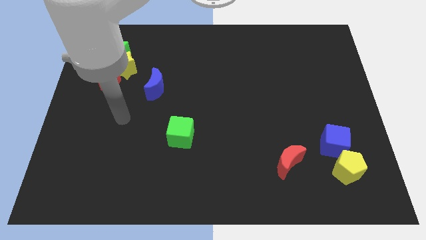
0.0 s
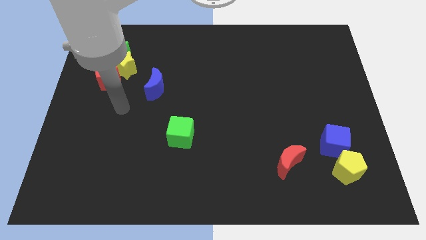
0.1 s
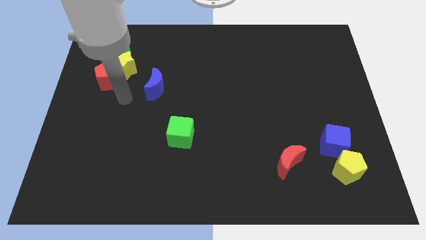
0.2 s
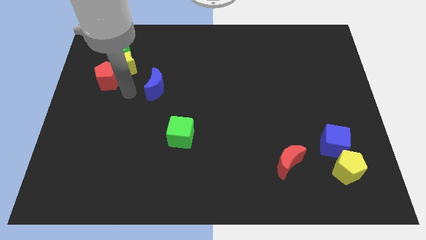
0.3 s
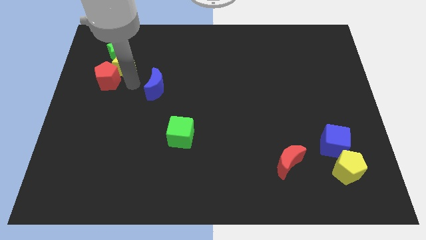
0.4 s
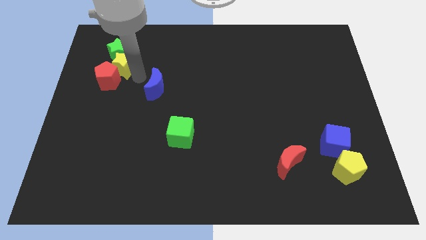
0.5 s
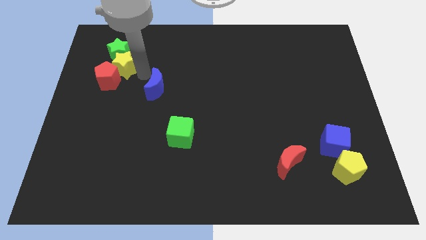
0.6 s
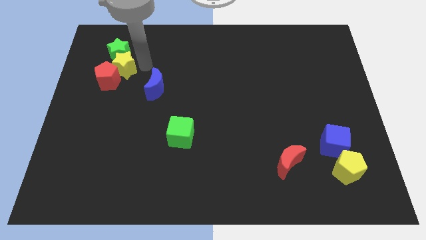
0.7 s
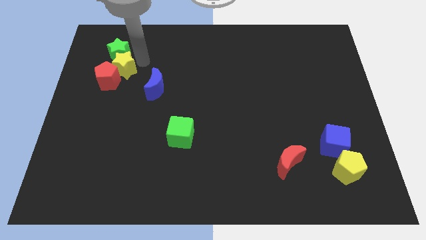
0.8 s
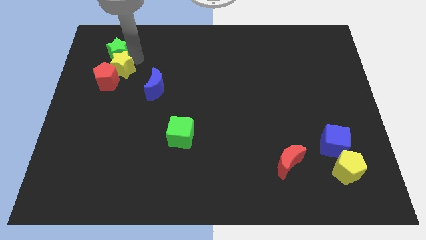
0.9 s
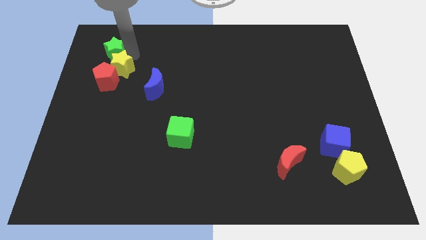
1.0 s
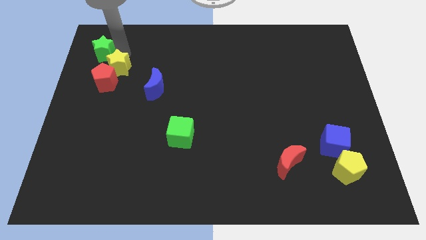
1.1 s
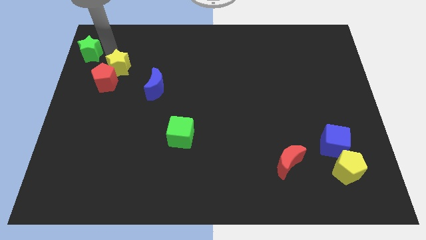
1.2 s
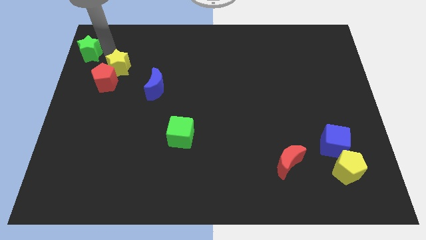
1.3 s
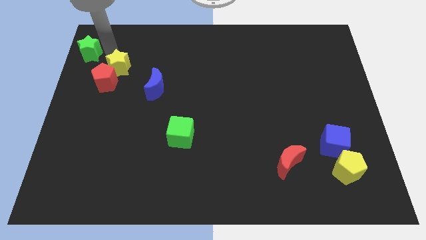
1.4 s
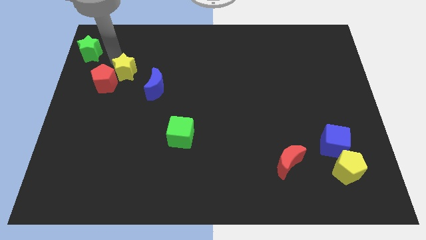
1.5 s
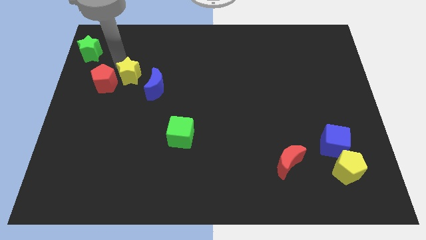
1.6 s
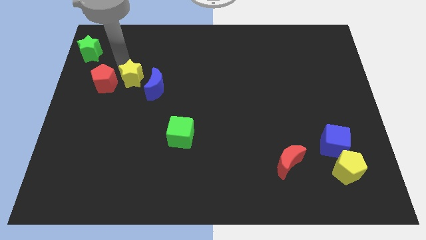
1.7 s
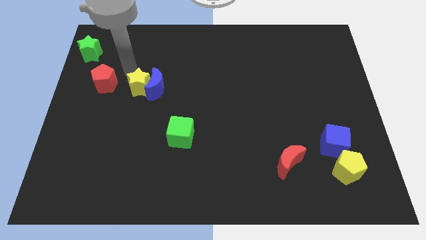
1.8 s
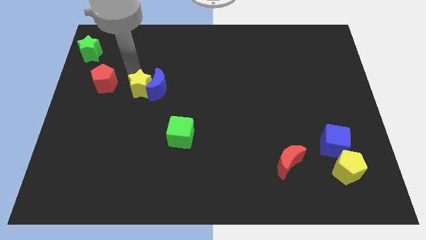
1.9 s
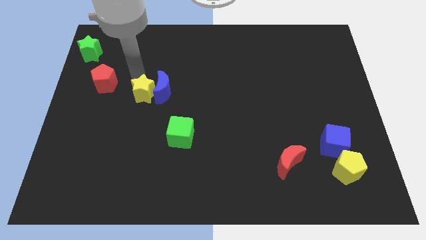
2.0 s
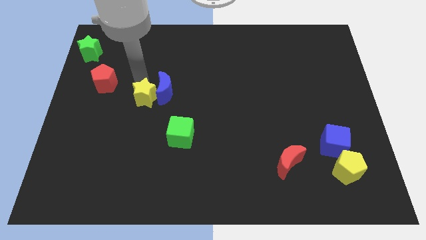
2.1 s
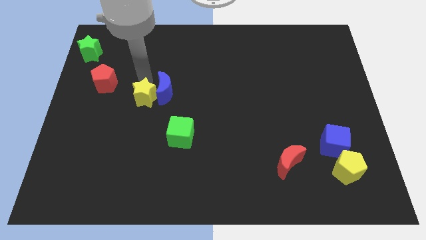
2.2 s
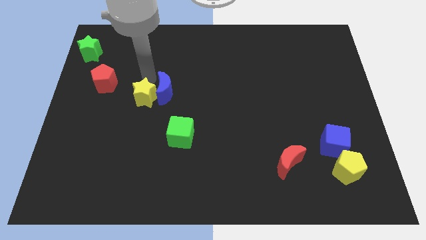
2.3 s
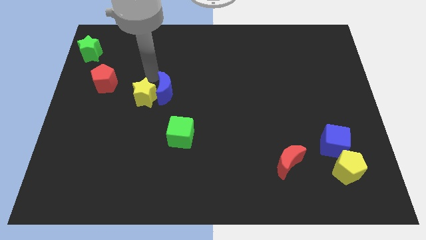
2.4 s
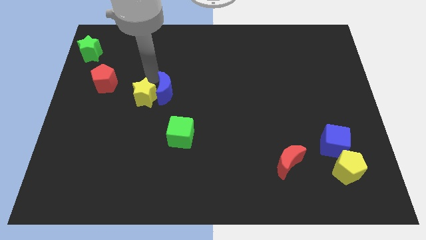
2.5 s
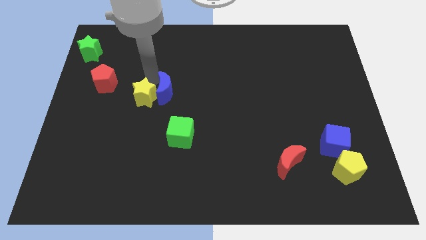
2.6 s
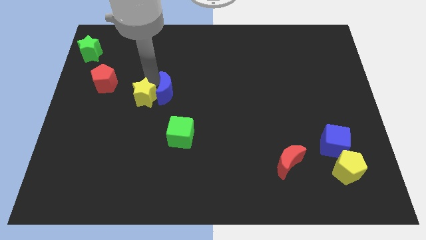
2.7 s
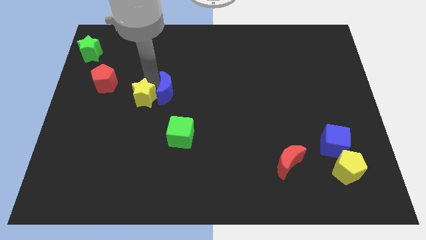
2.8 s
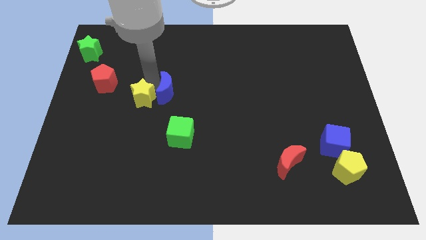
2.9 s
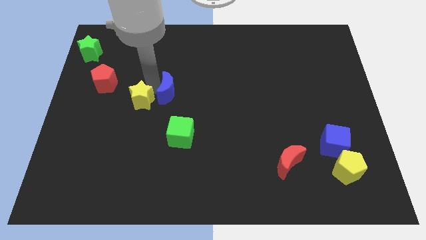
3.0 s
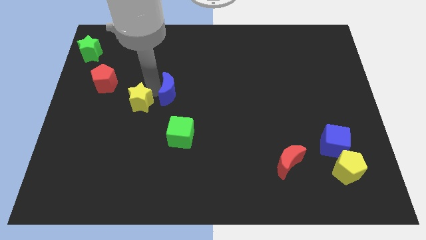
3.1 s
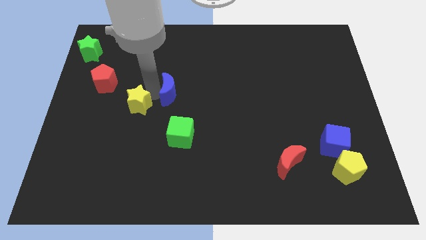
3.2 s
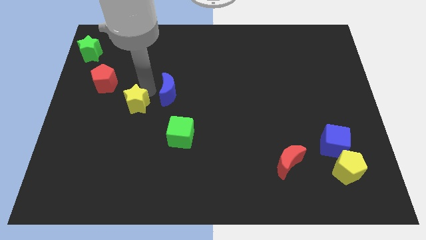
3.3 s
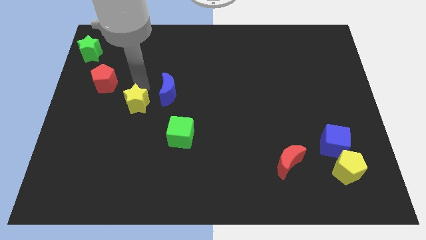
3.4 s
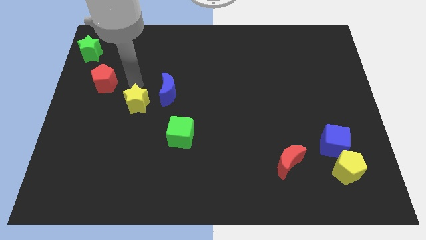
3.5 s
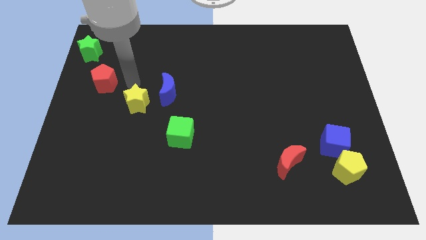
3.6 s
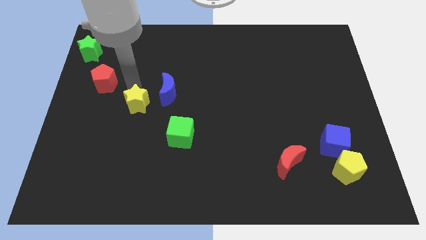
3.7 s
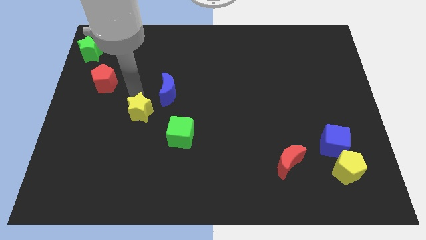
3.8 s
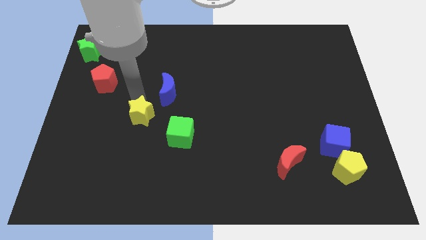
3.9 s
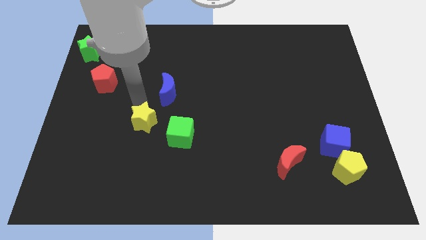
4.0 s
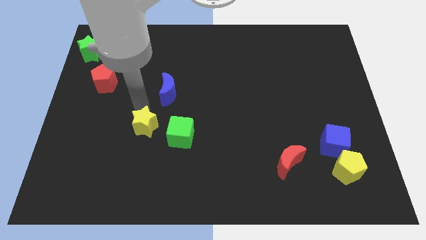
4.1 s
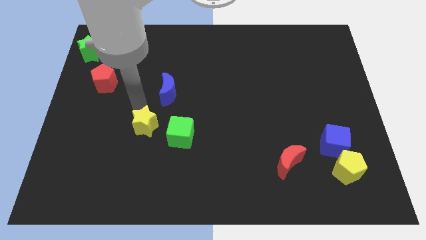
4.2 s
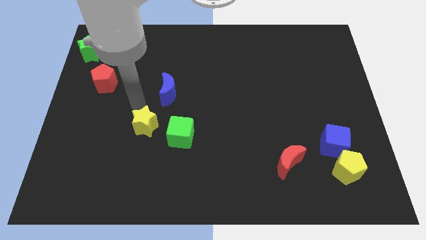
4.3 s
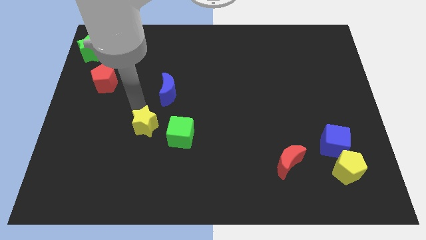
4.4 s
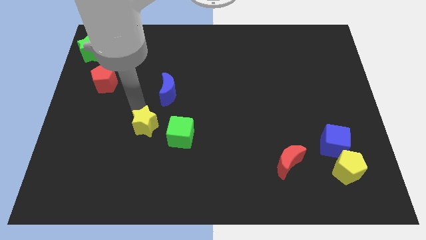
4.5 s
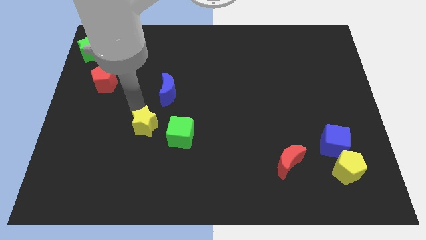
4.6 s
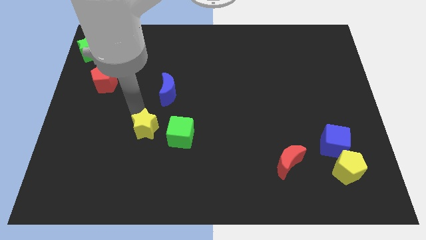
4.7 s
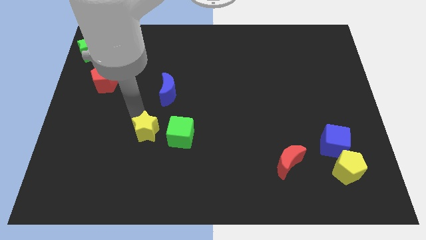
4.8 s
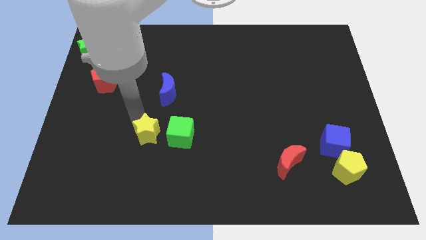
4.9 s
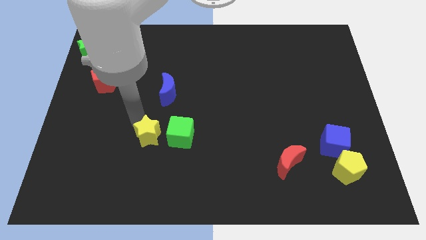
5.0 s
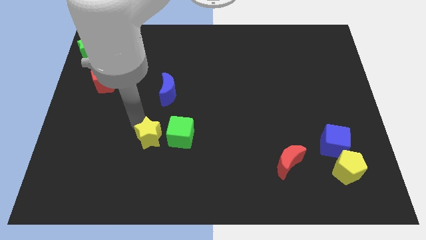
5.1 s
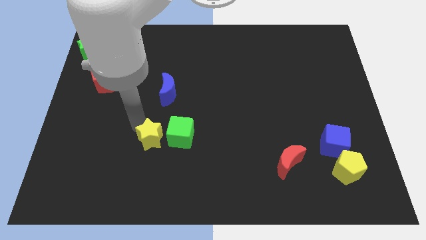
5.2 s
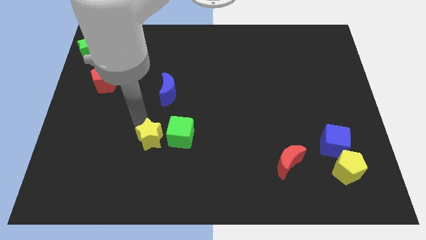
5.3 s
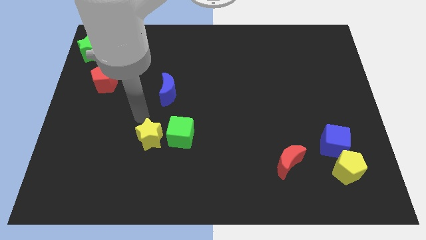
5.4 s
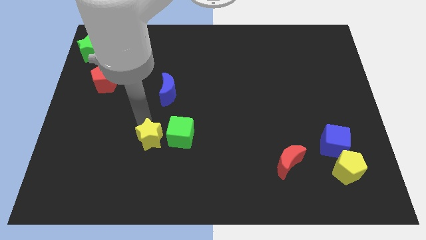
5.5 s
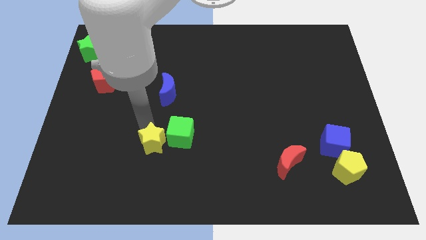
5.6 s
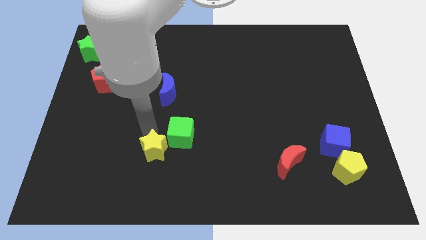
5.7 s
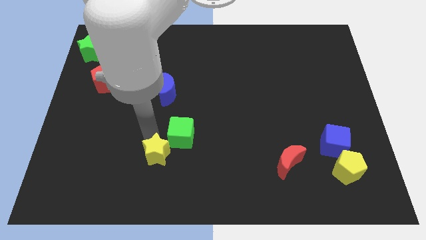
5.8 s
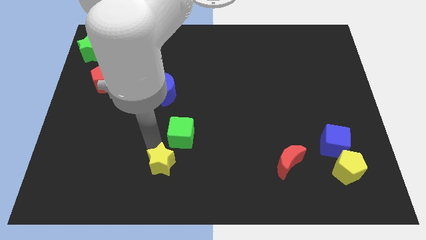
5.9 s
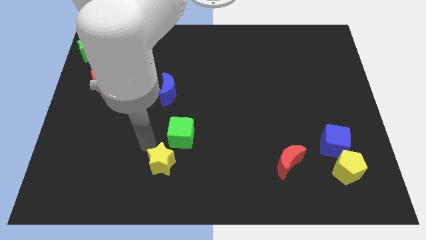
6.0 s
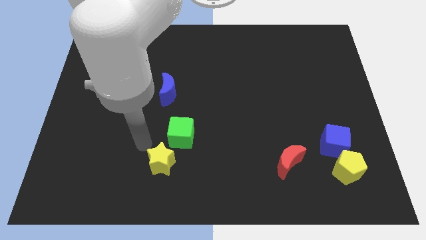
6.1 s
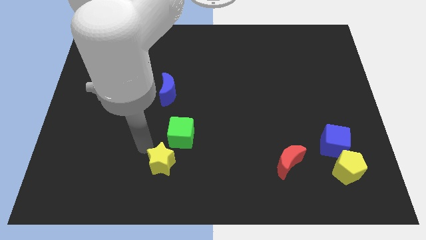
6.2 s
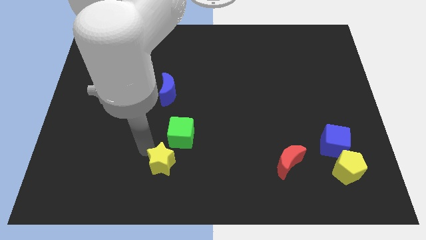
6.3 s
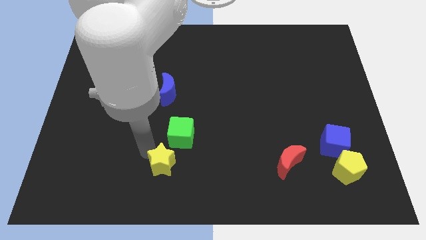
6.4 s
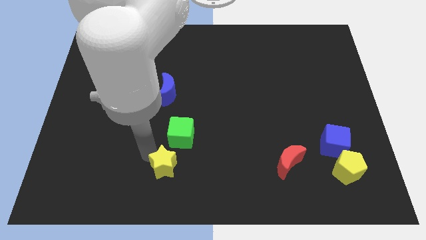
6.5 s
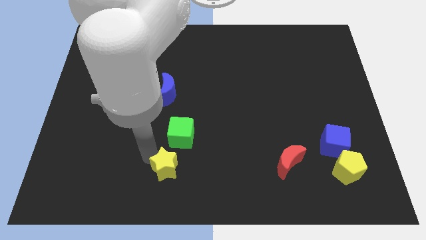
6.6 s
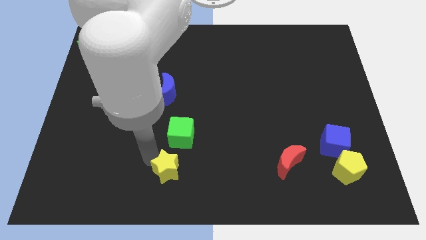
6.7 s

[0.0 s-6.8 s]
move the yellow star to the bottom
